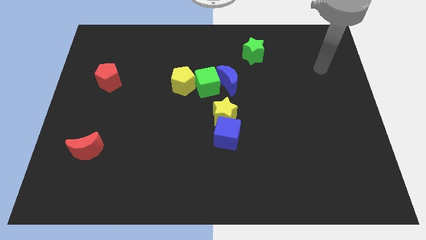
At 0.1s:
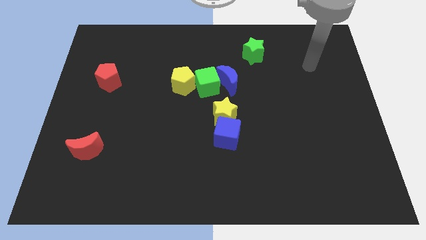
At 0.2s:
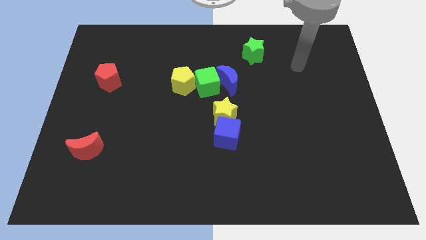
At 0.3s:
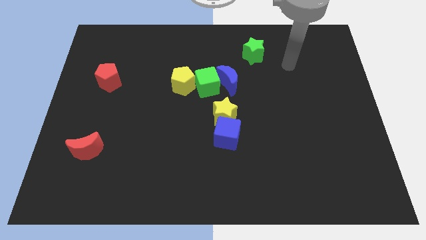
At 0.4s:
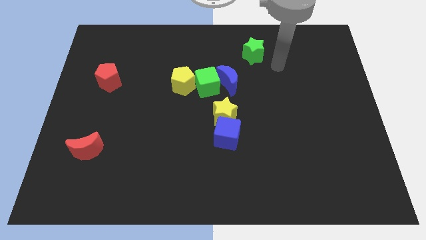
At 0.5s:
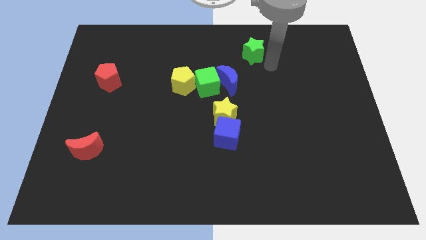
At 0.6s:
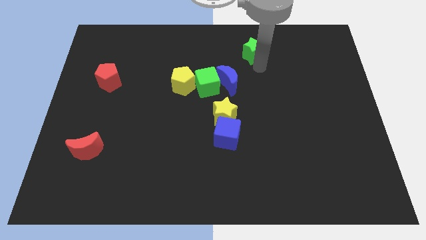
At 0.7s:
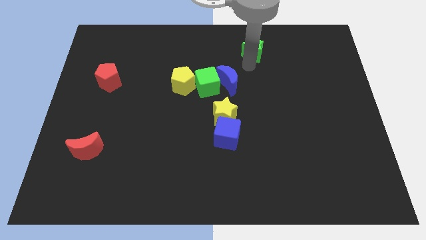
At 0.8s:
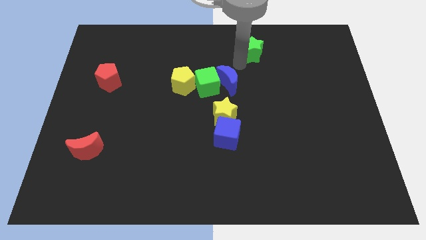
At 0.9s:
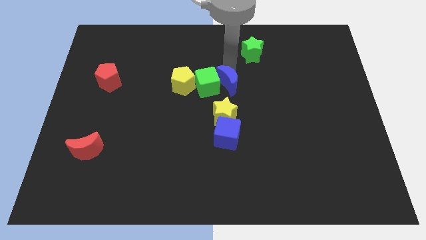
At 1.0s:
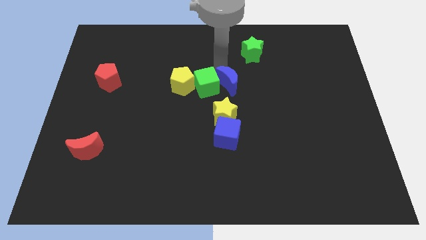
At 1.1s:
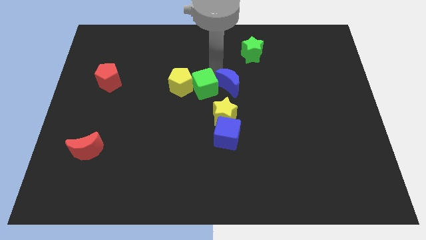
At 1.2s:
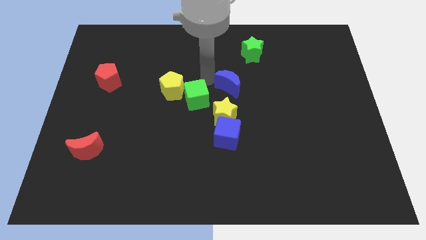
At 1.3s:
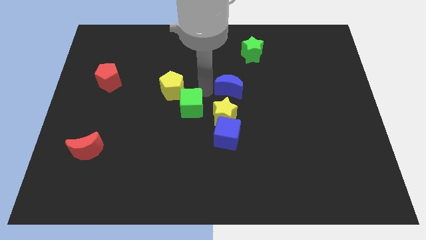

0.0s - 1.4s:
pull the blue moon apart from the green cube

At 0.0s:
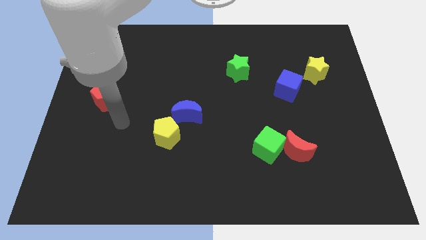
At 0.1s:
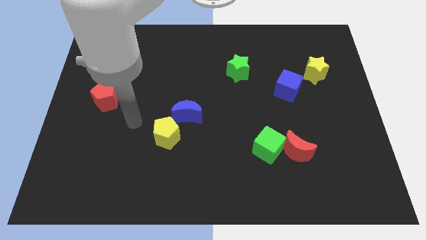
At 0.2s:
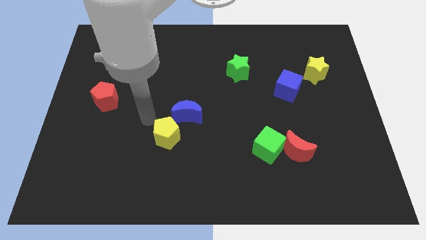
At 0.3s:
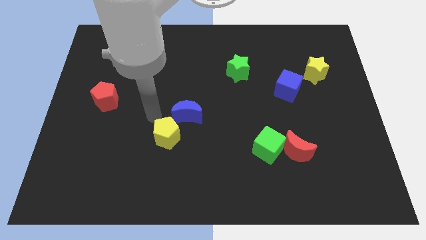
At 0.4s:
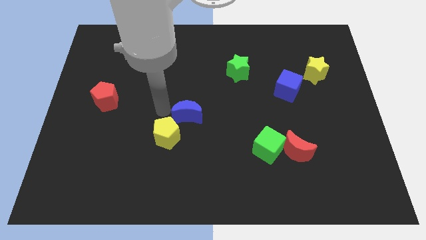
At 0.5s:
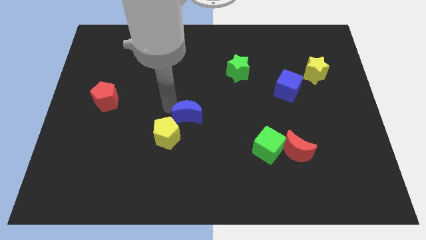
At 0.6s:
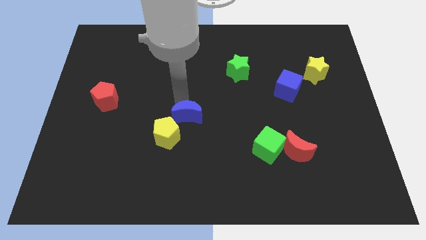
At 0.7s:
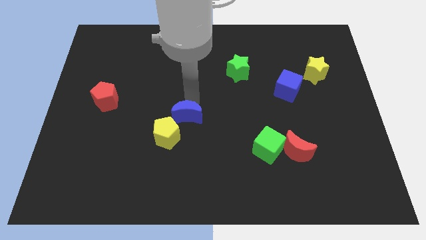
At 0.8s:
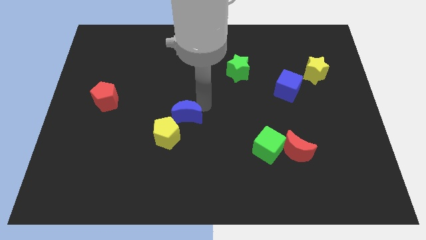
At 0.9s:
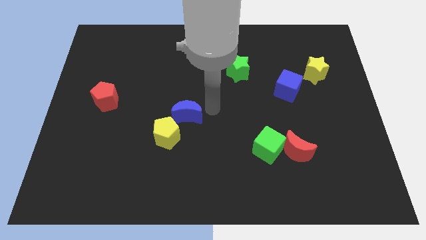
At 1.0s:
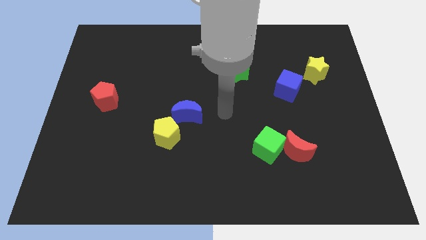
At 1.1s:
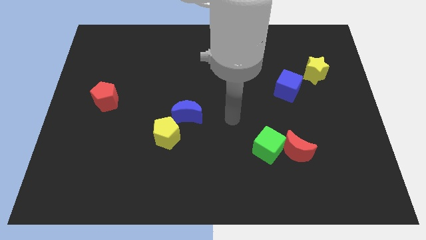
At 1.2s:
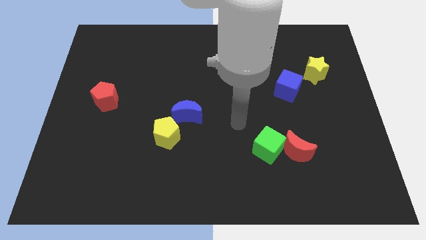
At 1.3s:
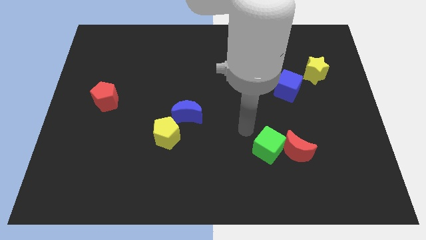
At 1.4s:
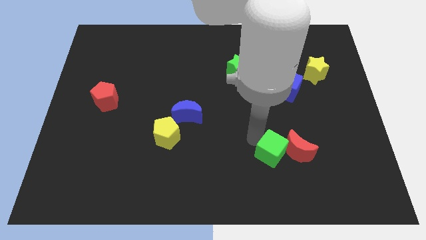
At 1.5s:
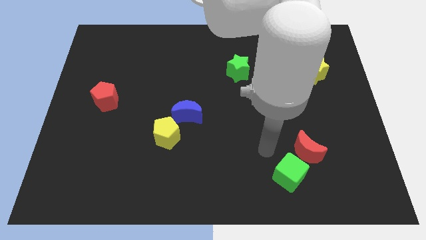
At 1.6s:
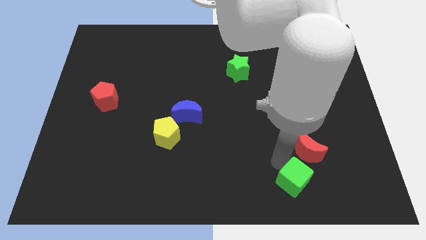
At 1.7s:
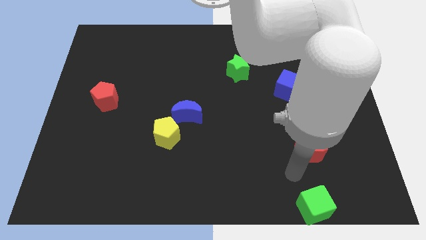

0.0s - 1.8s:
move the red moon away from the green cube

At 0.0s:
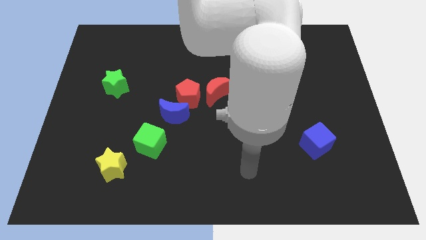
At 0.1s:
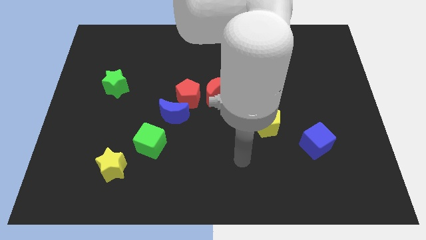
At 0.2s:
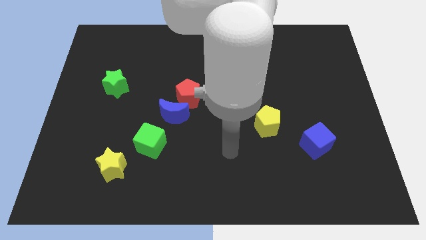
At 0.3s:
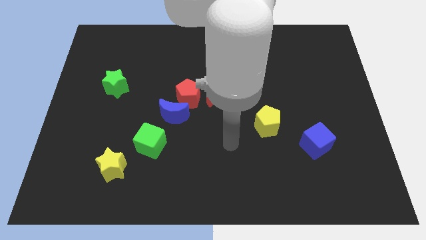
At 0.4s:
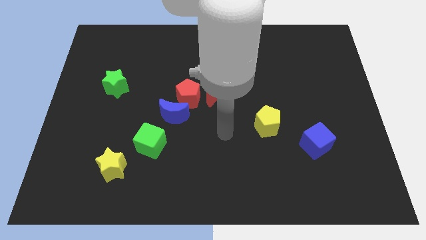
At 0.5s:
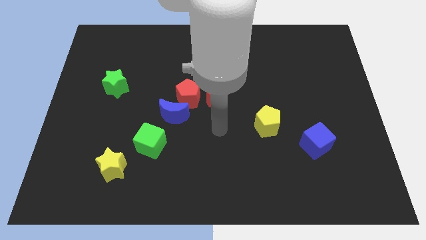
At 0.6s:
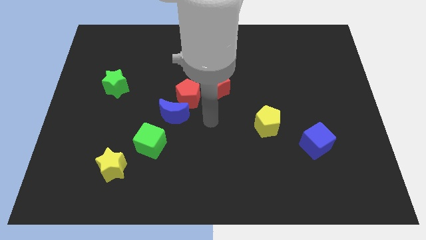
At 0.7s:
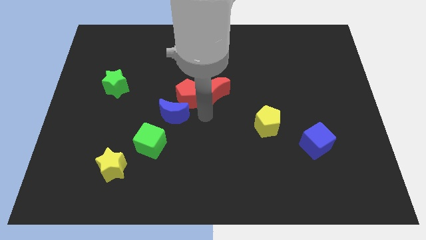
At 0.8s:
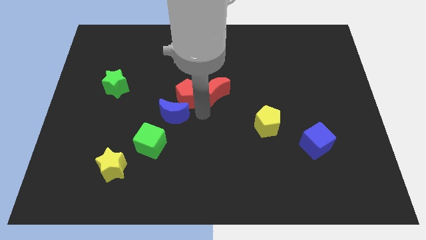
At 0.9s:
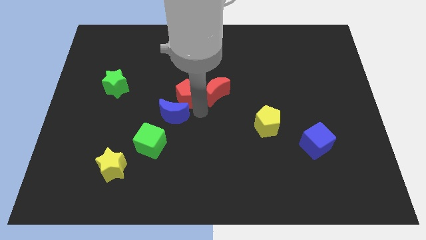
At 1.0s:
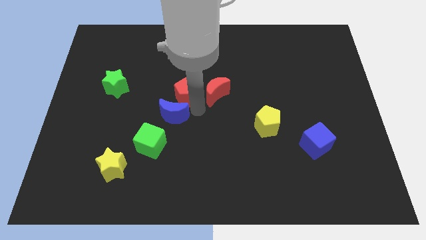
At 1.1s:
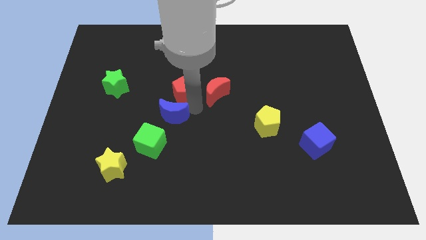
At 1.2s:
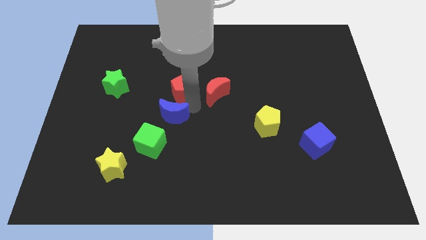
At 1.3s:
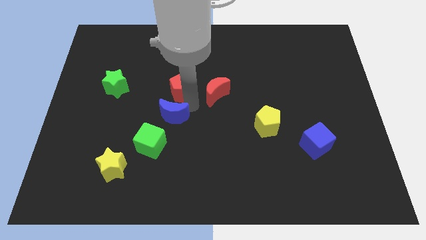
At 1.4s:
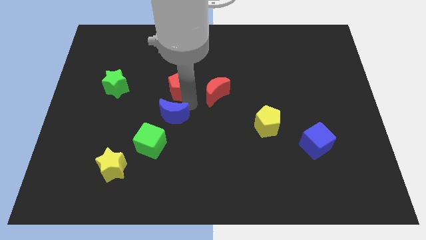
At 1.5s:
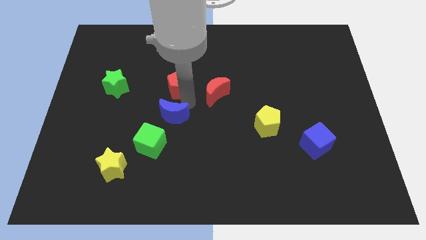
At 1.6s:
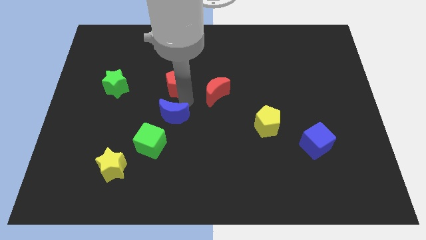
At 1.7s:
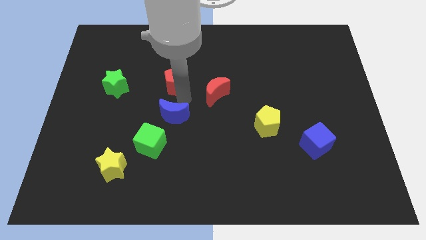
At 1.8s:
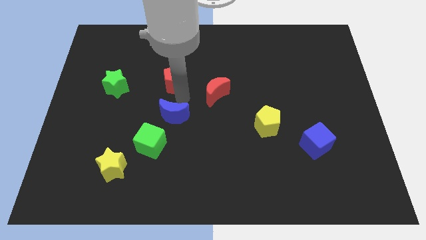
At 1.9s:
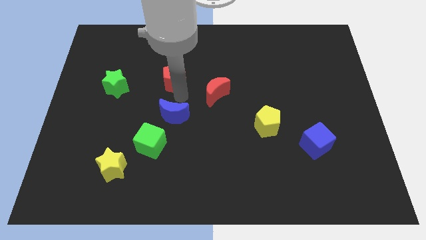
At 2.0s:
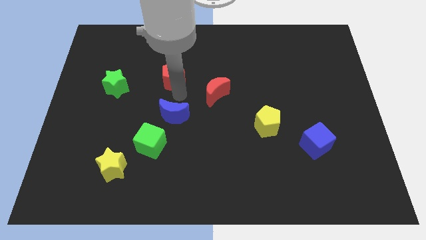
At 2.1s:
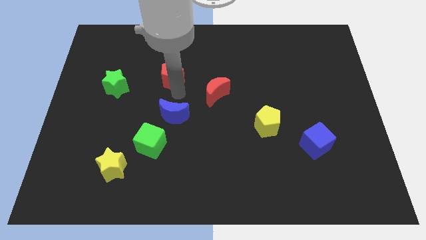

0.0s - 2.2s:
separate the red pentagon from the blue moon and red moon

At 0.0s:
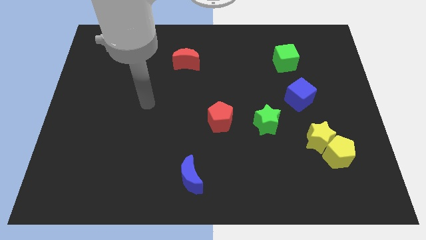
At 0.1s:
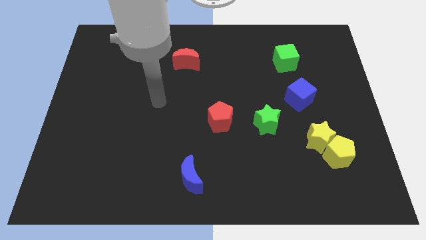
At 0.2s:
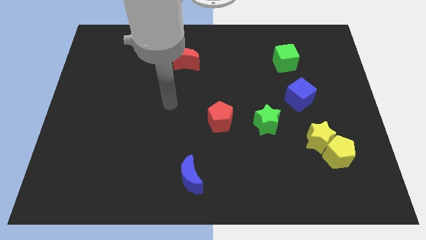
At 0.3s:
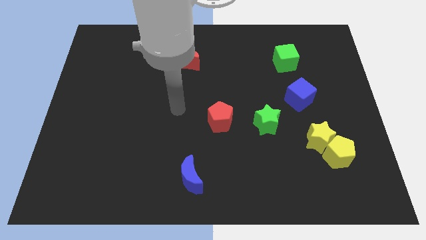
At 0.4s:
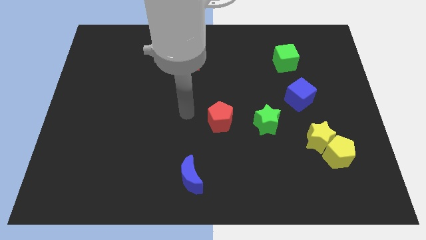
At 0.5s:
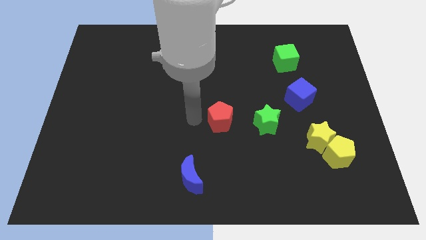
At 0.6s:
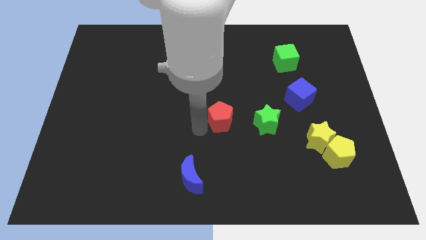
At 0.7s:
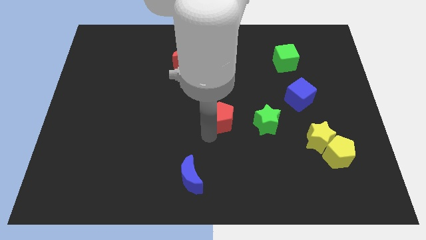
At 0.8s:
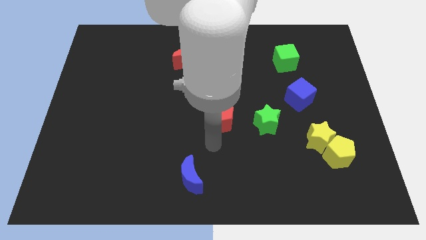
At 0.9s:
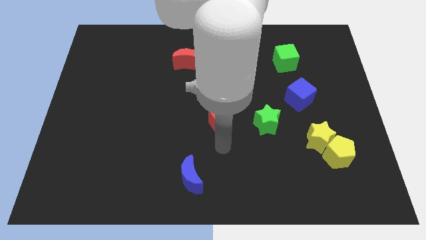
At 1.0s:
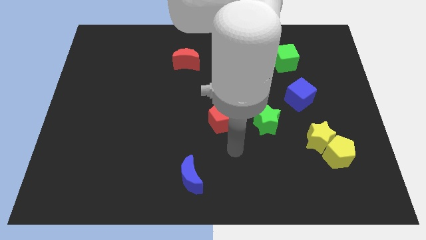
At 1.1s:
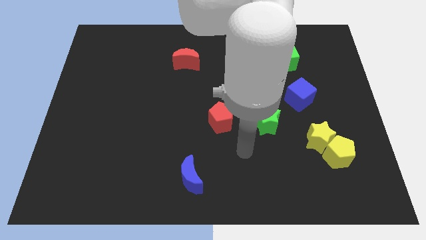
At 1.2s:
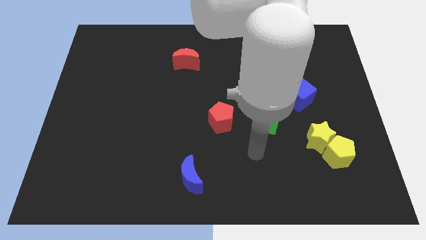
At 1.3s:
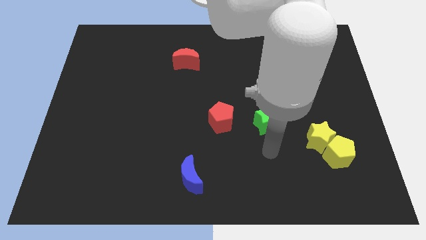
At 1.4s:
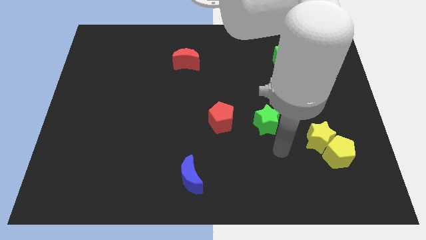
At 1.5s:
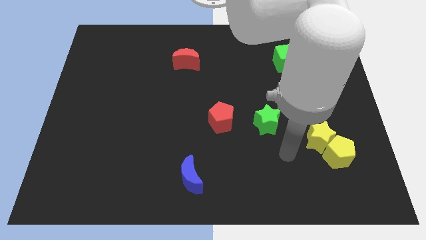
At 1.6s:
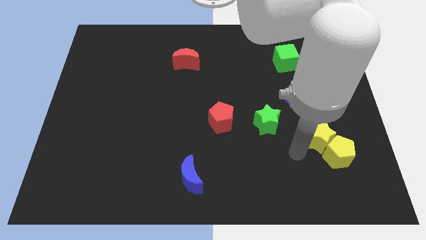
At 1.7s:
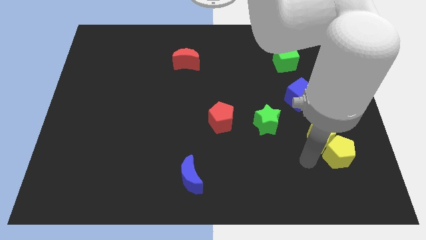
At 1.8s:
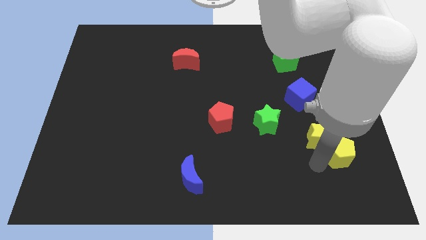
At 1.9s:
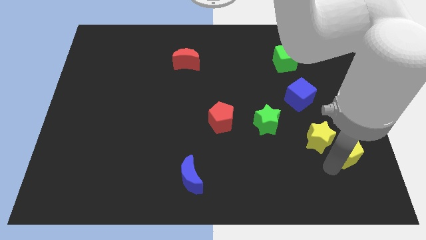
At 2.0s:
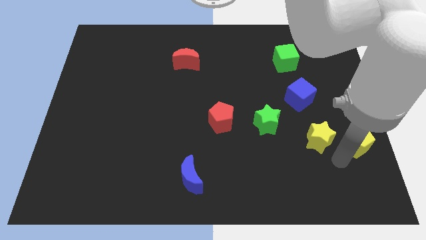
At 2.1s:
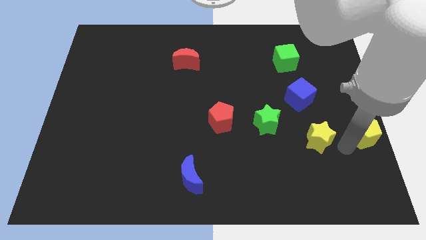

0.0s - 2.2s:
move the yellow star away from the yellow pentagon

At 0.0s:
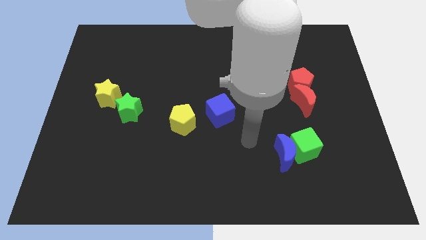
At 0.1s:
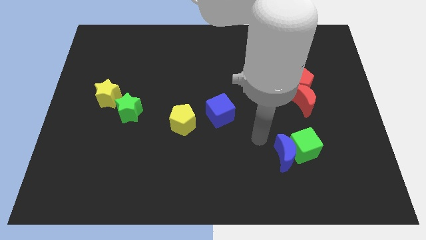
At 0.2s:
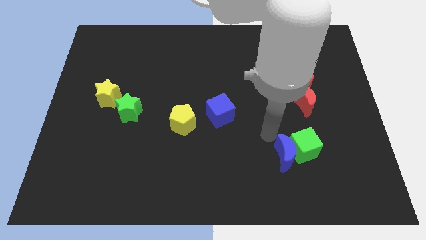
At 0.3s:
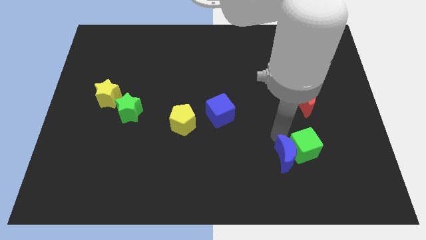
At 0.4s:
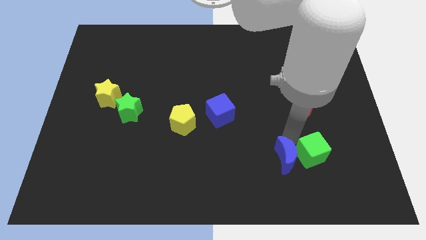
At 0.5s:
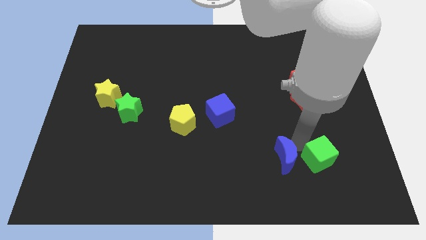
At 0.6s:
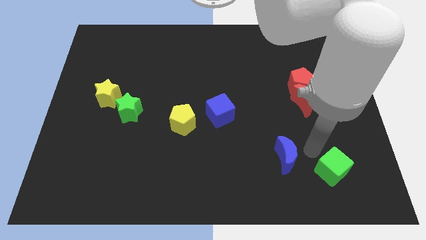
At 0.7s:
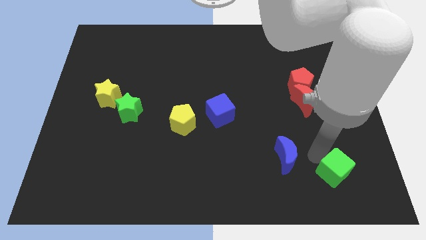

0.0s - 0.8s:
separate the blue moon from the green cube

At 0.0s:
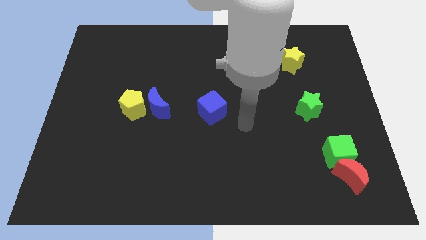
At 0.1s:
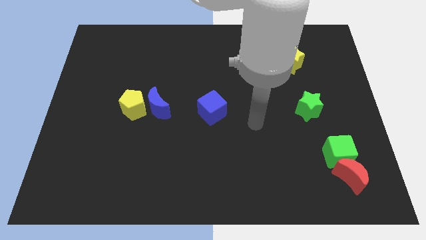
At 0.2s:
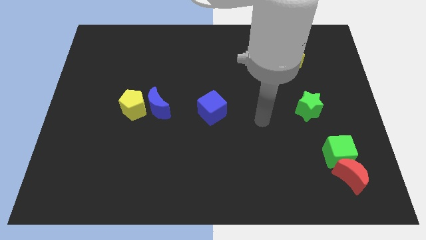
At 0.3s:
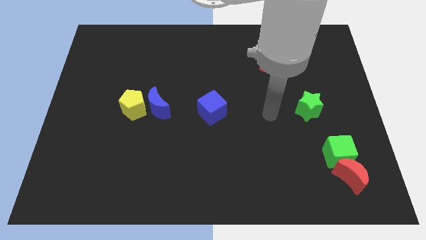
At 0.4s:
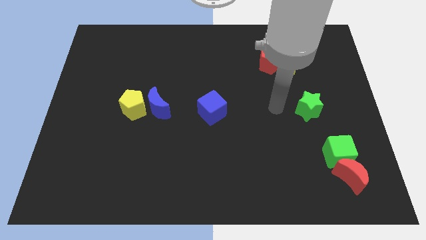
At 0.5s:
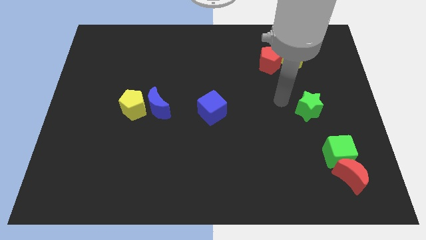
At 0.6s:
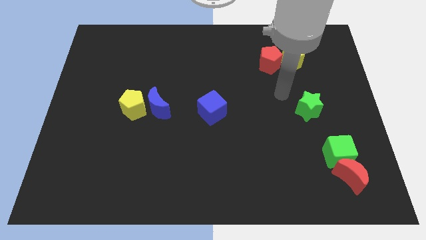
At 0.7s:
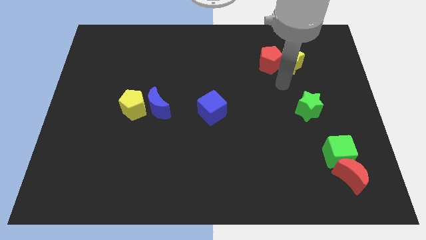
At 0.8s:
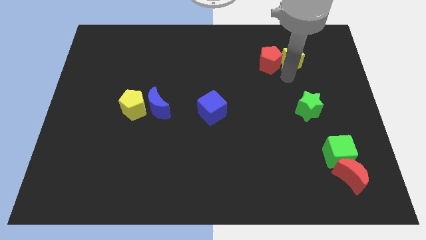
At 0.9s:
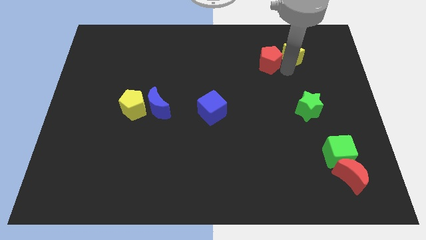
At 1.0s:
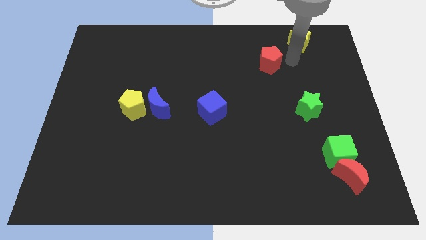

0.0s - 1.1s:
separate the red pentagon from the yellow star

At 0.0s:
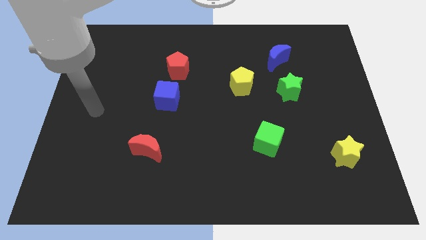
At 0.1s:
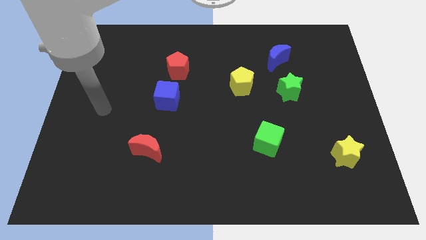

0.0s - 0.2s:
move the red pentagon away from the blue cube
